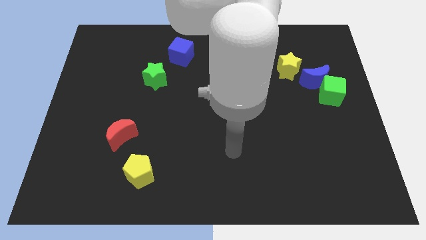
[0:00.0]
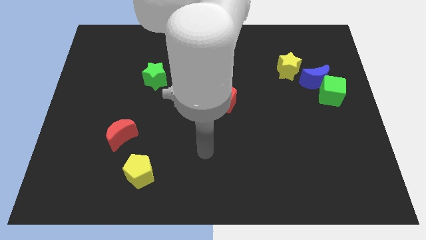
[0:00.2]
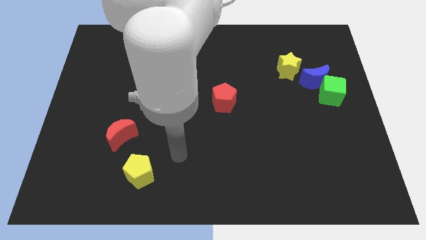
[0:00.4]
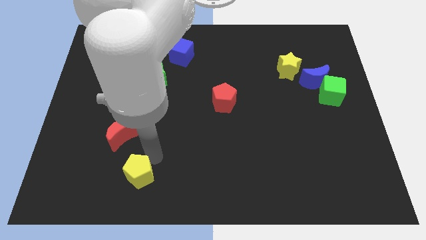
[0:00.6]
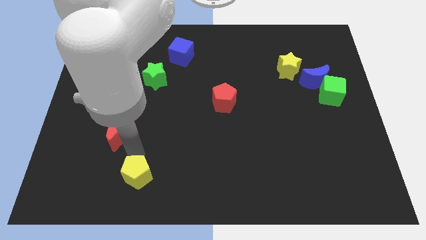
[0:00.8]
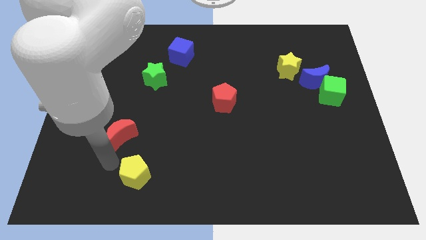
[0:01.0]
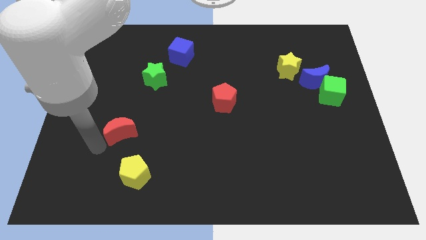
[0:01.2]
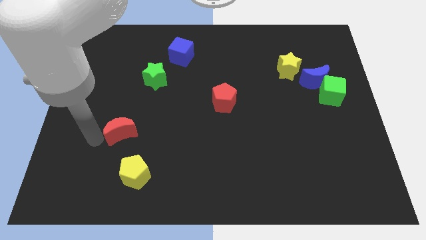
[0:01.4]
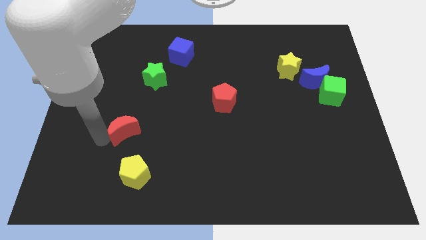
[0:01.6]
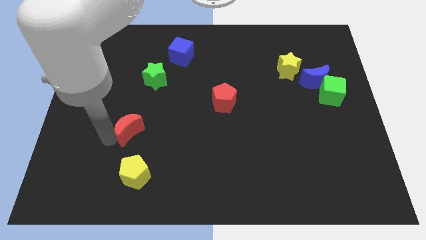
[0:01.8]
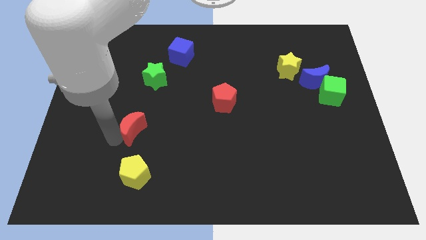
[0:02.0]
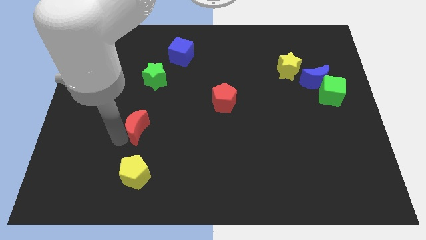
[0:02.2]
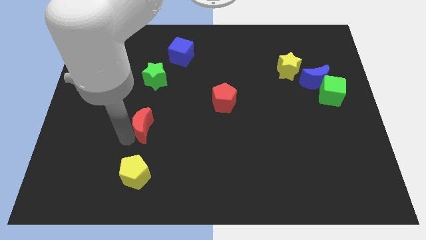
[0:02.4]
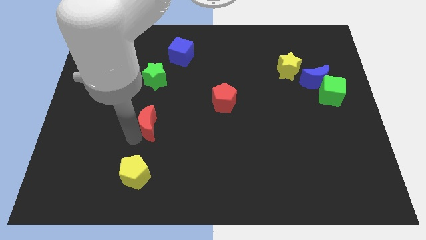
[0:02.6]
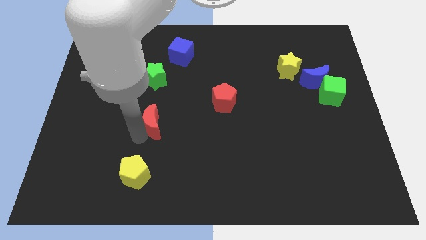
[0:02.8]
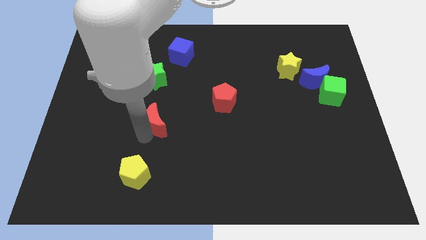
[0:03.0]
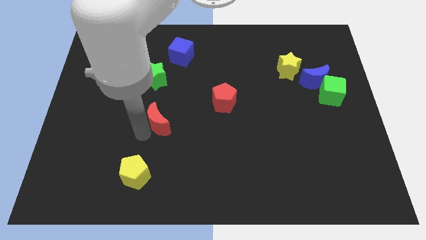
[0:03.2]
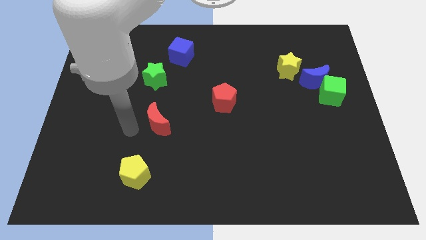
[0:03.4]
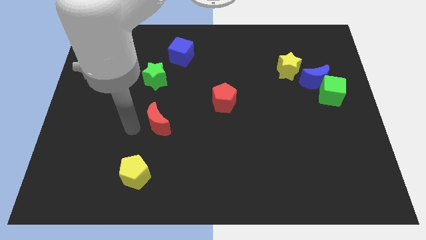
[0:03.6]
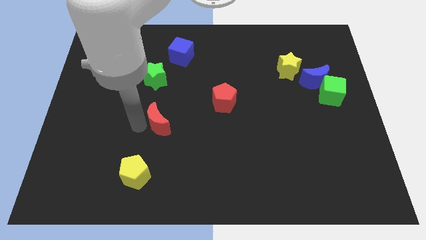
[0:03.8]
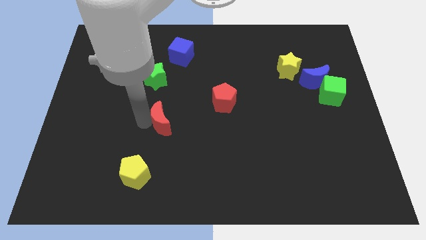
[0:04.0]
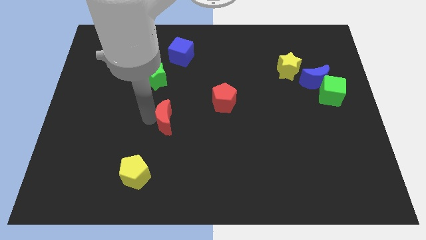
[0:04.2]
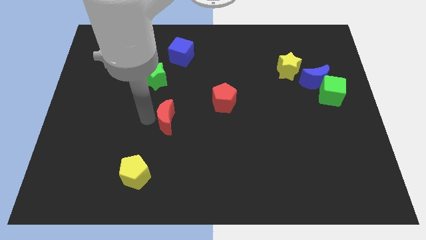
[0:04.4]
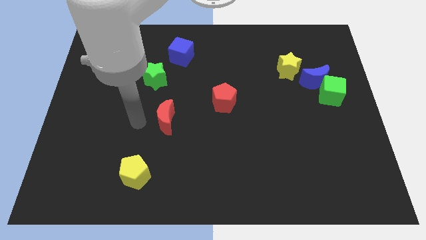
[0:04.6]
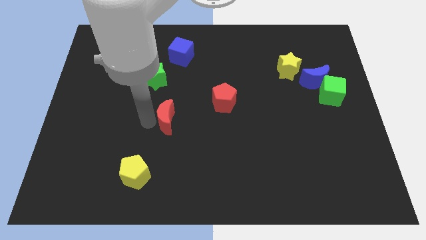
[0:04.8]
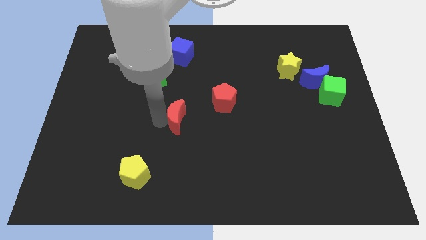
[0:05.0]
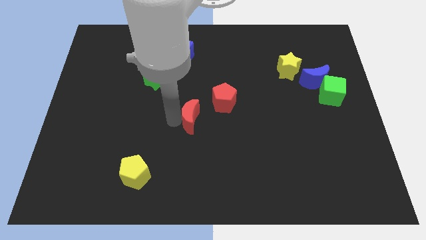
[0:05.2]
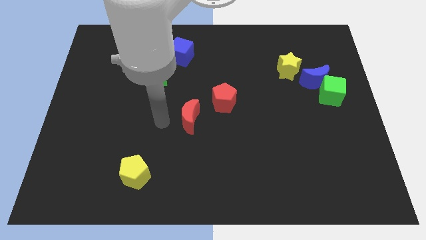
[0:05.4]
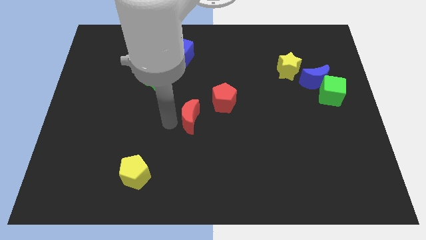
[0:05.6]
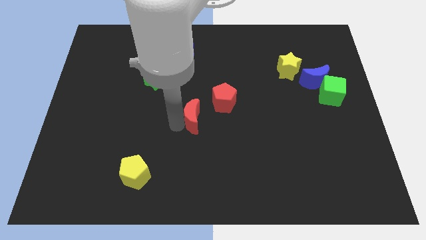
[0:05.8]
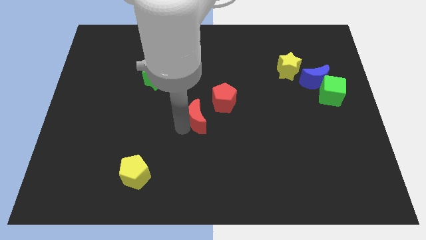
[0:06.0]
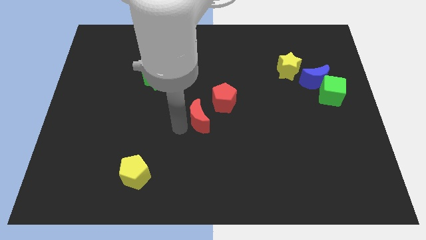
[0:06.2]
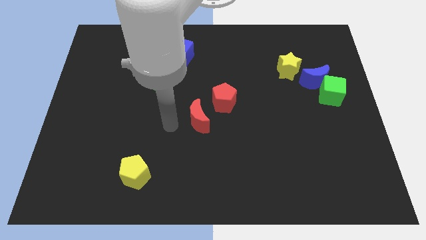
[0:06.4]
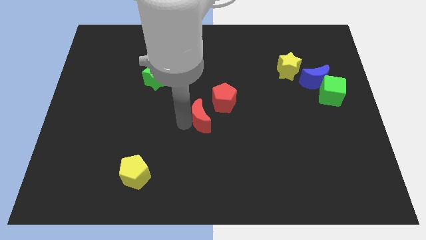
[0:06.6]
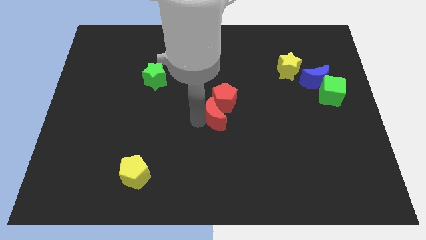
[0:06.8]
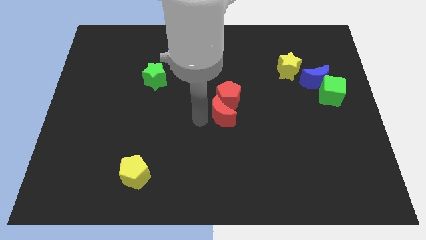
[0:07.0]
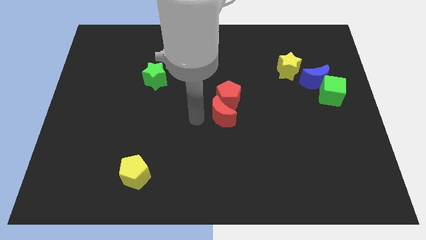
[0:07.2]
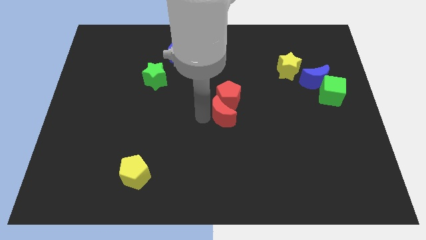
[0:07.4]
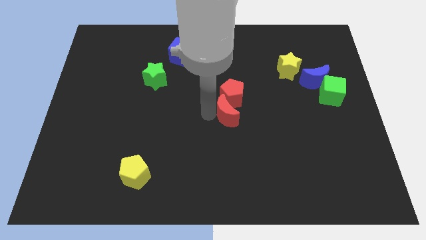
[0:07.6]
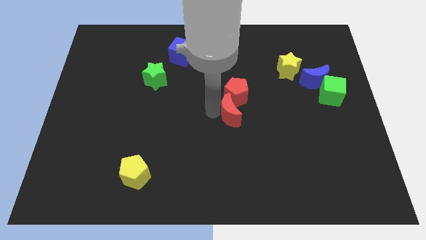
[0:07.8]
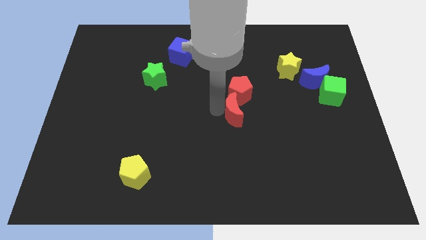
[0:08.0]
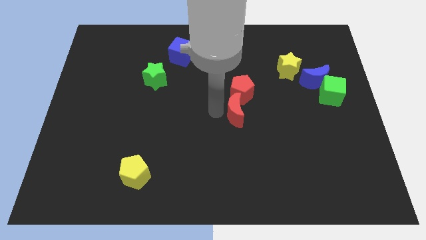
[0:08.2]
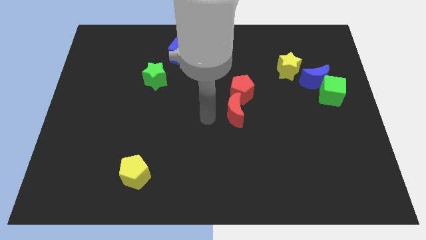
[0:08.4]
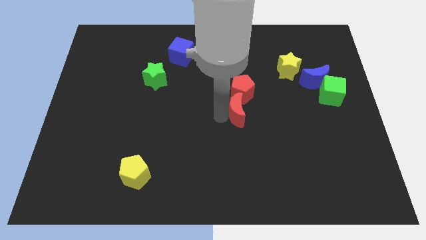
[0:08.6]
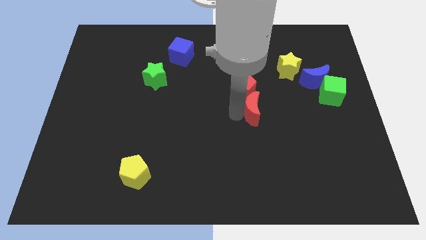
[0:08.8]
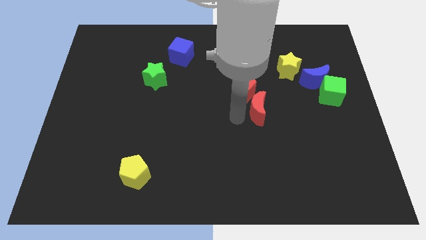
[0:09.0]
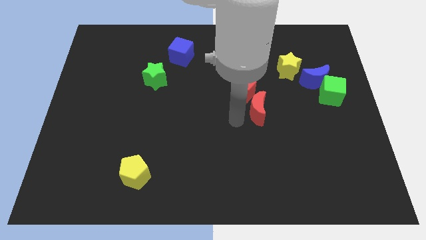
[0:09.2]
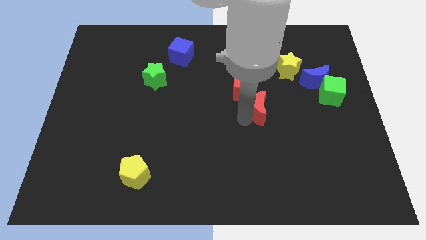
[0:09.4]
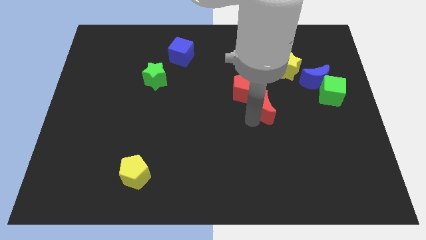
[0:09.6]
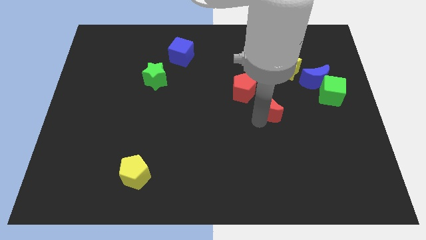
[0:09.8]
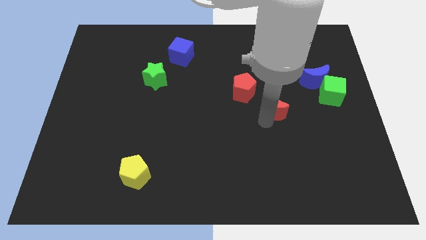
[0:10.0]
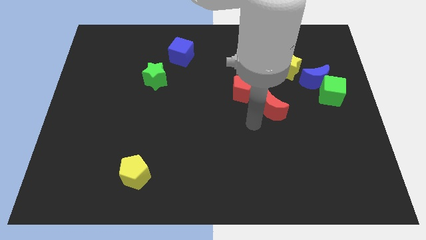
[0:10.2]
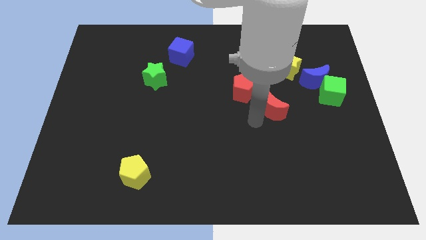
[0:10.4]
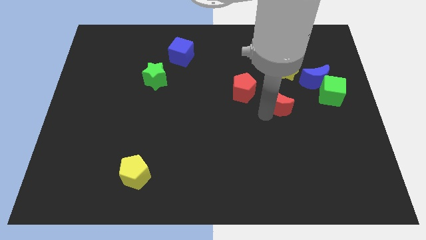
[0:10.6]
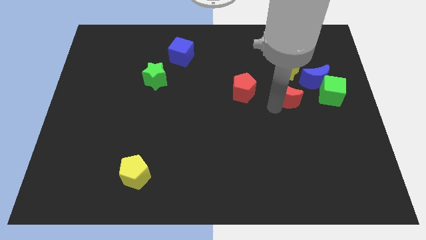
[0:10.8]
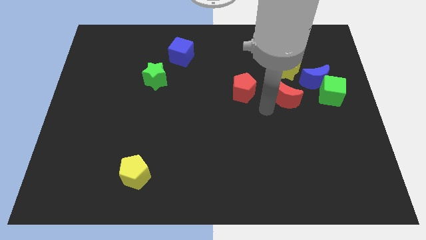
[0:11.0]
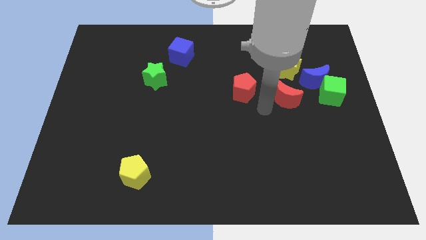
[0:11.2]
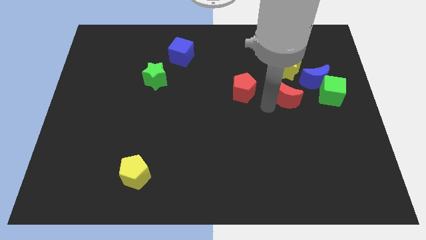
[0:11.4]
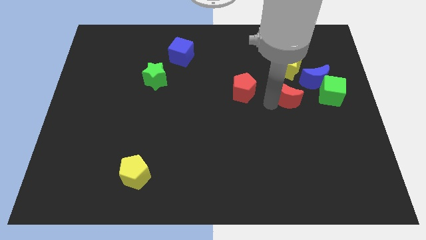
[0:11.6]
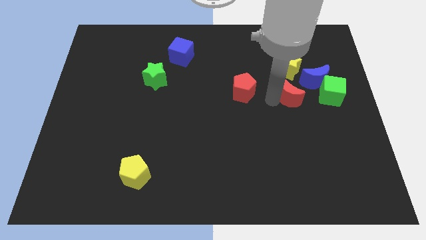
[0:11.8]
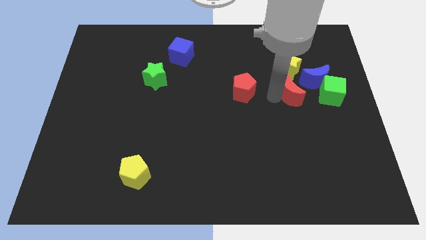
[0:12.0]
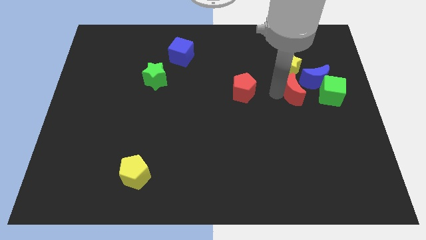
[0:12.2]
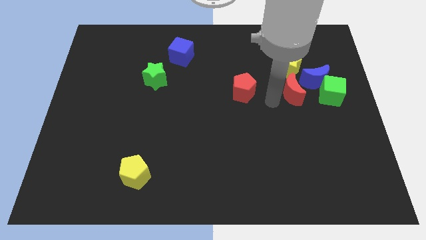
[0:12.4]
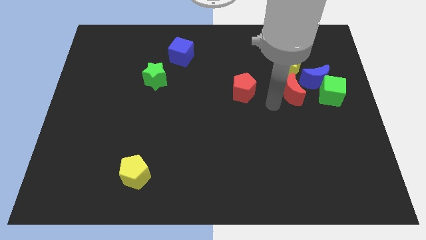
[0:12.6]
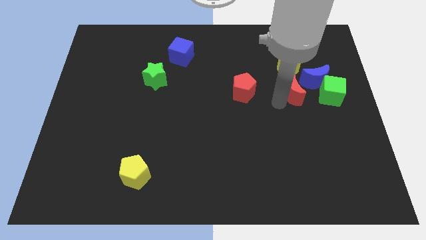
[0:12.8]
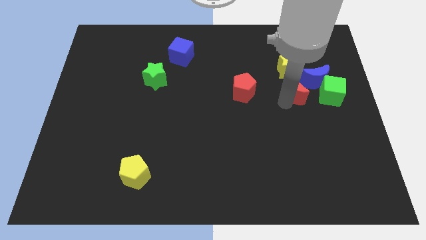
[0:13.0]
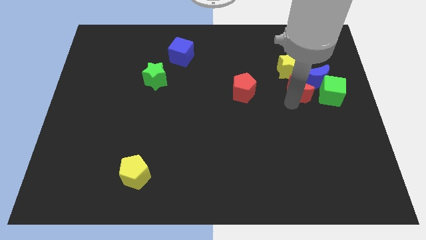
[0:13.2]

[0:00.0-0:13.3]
put the red moon next to the blue moon

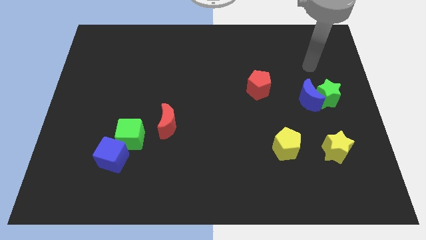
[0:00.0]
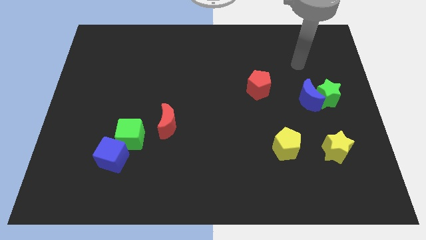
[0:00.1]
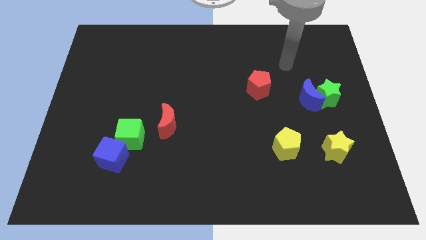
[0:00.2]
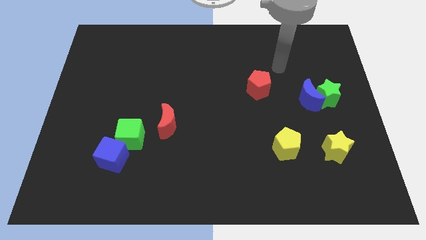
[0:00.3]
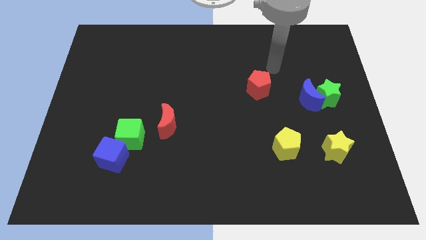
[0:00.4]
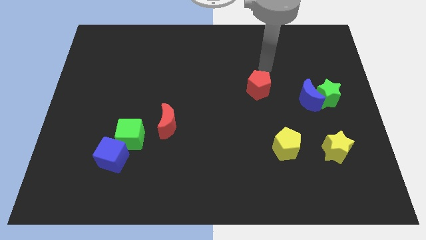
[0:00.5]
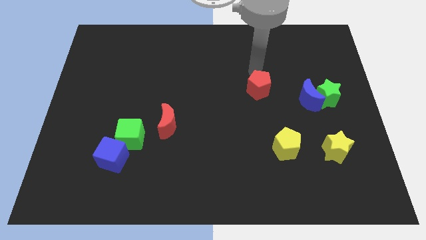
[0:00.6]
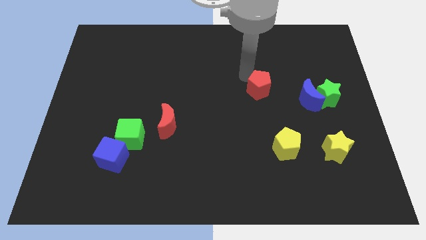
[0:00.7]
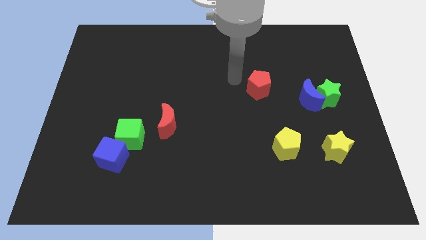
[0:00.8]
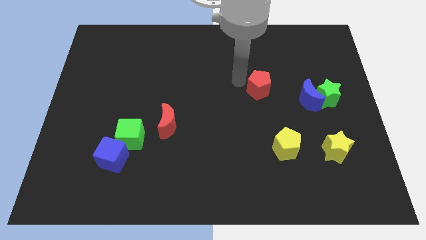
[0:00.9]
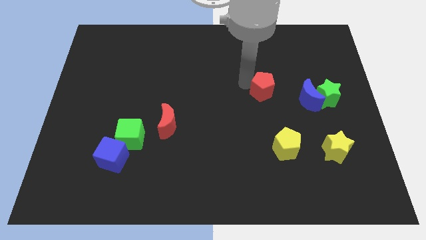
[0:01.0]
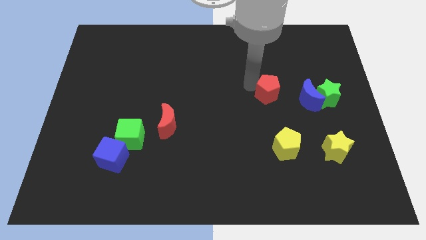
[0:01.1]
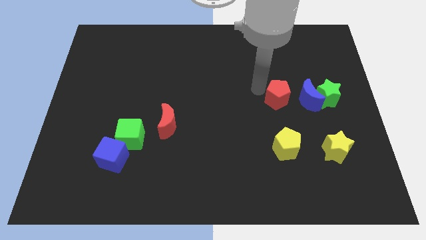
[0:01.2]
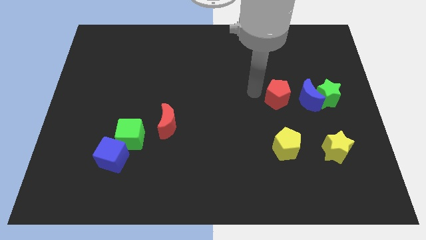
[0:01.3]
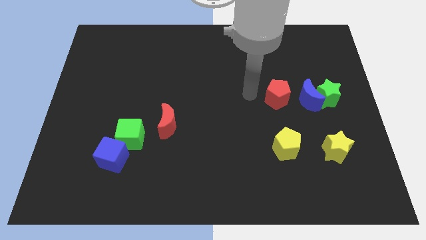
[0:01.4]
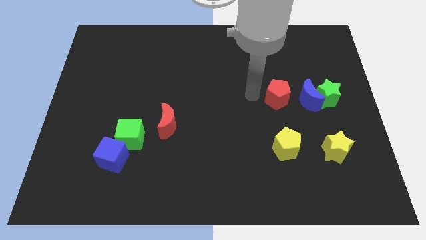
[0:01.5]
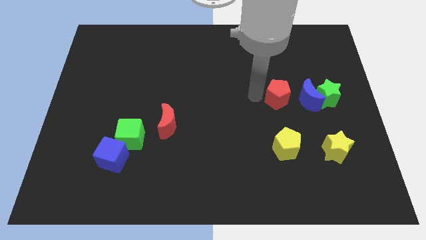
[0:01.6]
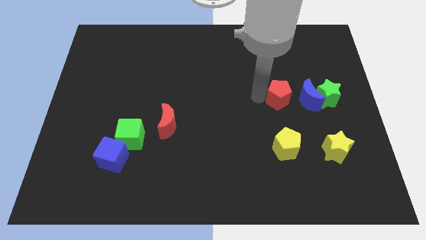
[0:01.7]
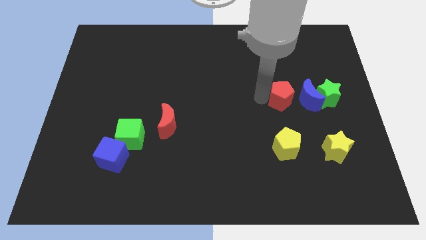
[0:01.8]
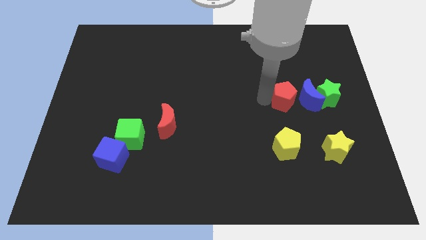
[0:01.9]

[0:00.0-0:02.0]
push the red pentagon next to the blue moon
